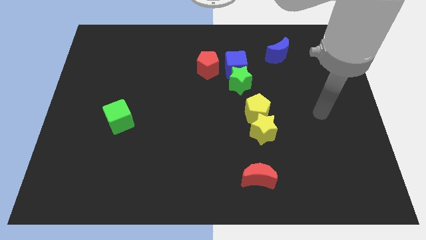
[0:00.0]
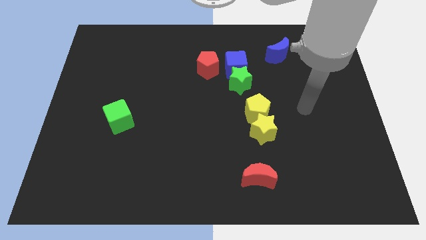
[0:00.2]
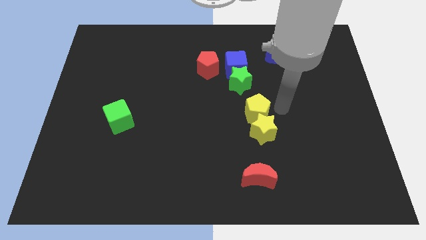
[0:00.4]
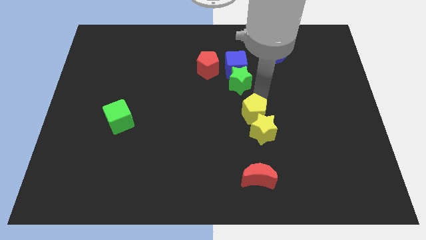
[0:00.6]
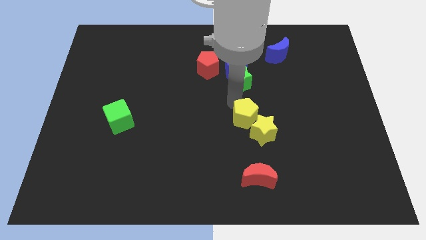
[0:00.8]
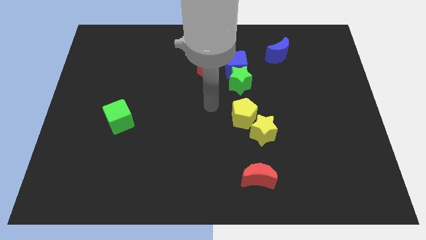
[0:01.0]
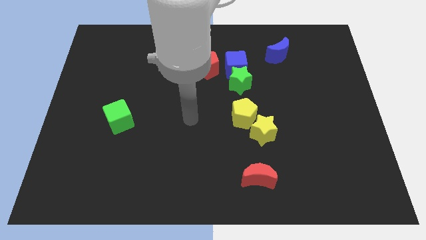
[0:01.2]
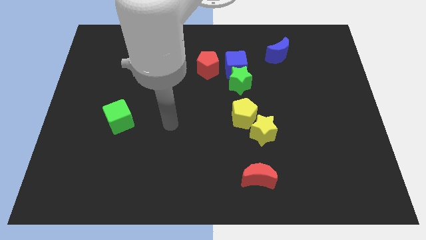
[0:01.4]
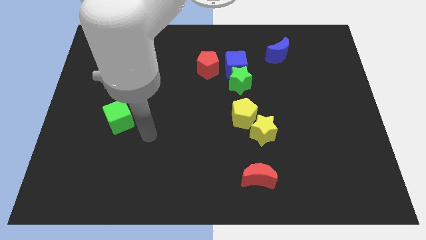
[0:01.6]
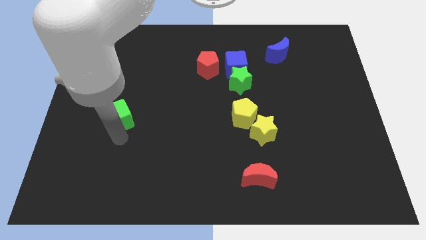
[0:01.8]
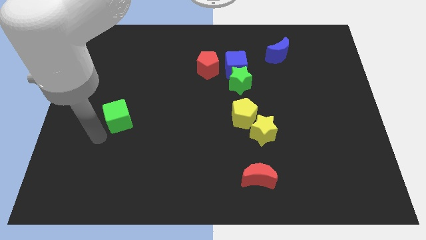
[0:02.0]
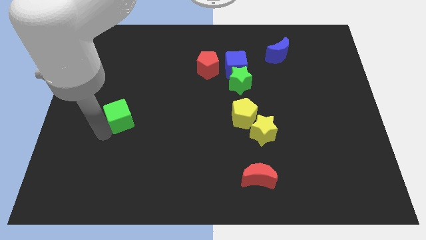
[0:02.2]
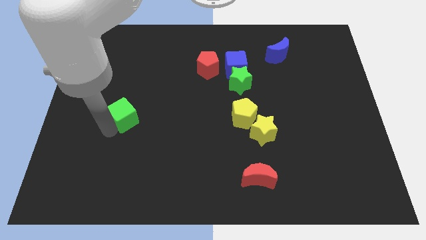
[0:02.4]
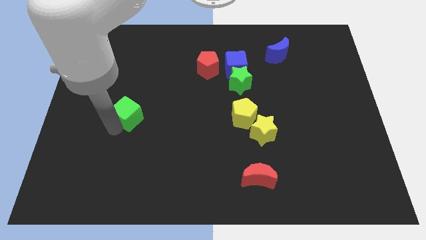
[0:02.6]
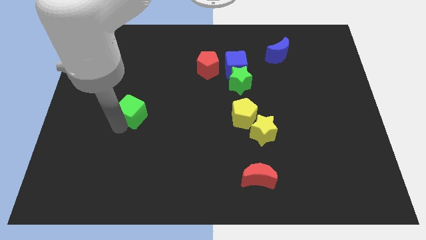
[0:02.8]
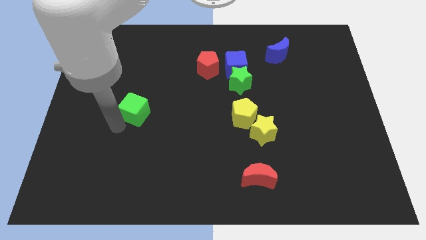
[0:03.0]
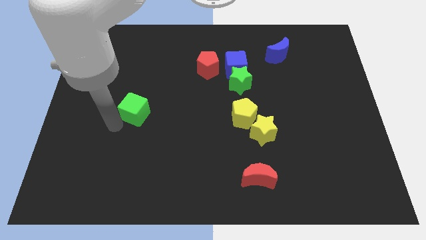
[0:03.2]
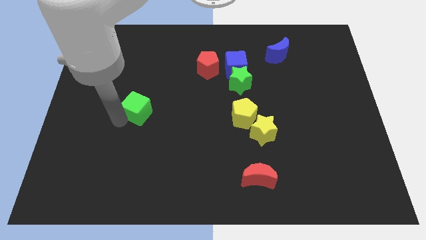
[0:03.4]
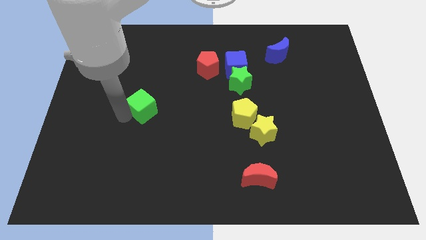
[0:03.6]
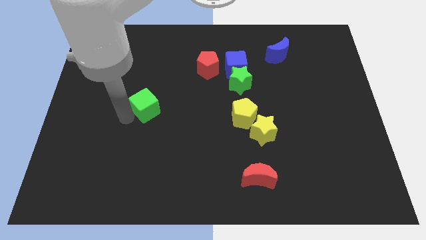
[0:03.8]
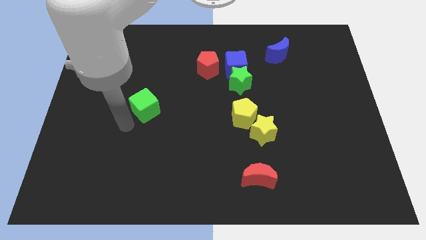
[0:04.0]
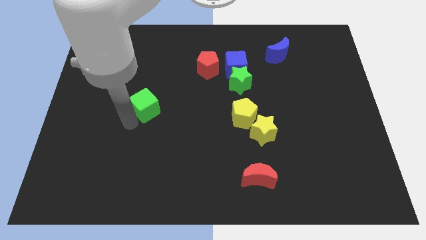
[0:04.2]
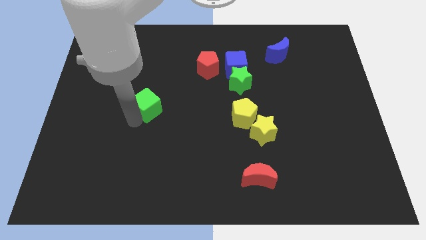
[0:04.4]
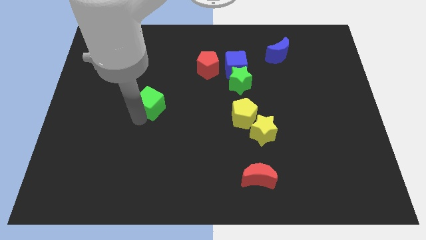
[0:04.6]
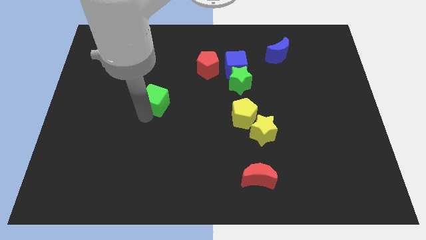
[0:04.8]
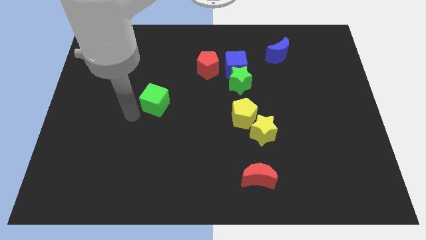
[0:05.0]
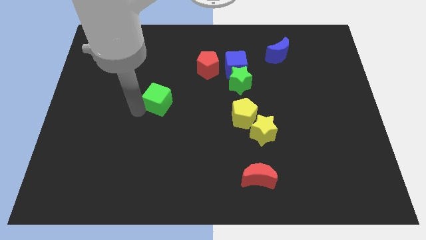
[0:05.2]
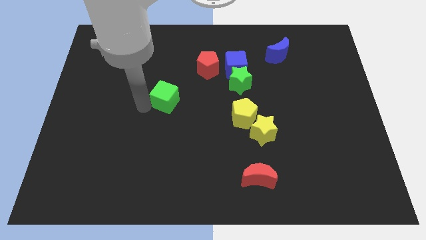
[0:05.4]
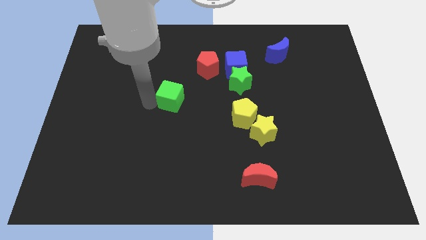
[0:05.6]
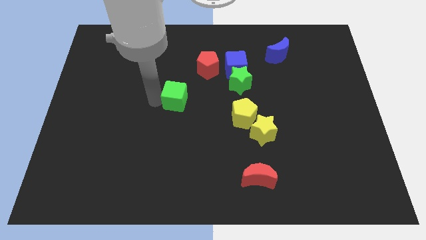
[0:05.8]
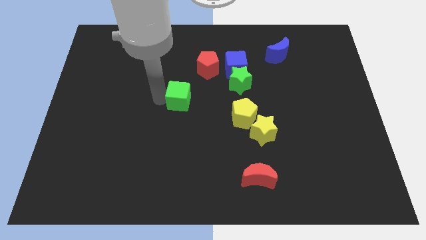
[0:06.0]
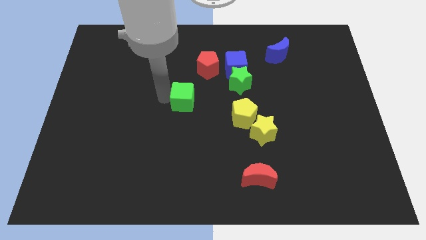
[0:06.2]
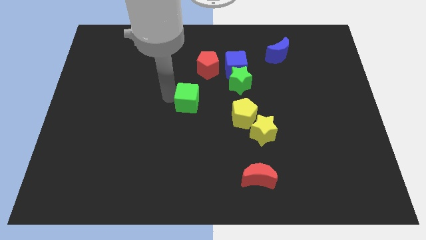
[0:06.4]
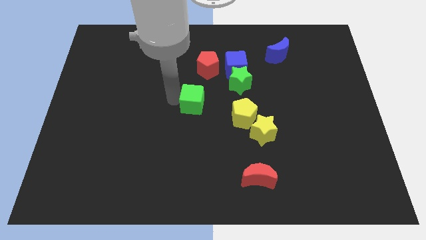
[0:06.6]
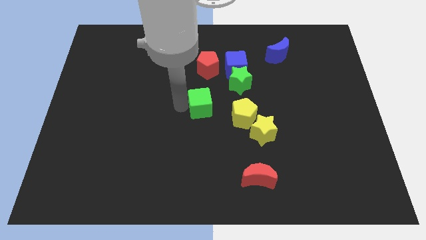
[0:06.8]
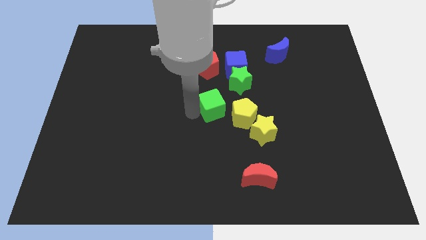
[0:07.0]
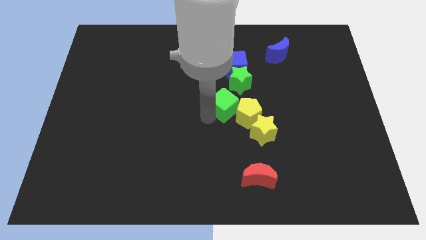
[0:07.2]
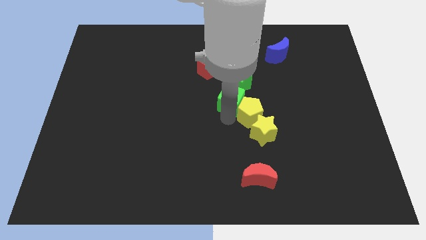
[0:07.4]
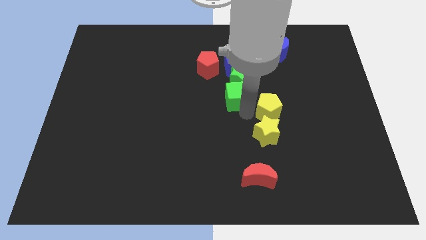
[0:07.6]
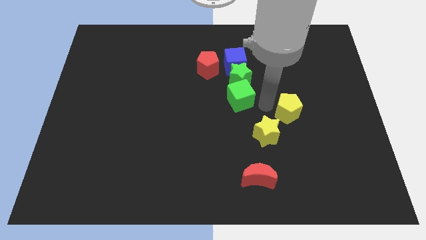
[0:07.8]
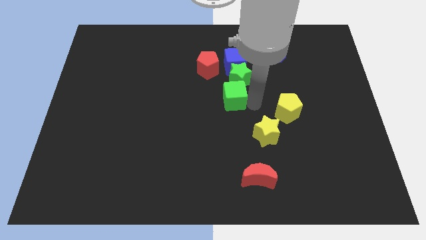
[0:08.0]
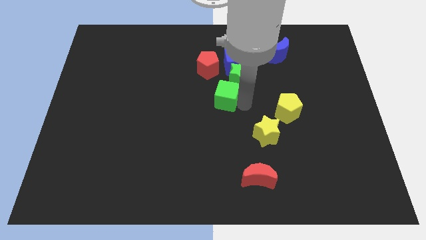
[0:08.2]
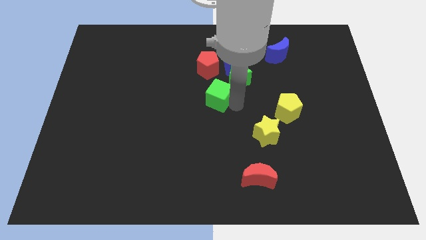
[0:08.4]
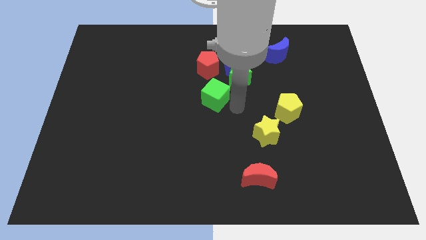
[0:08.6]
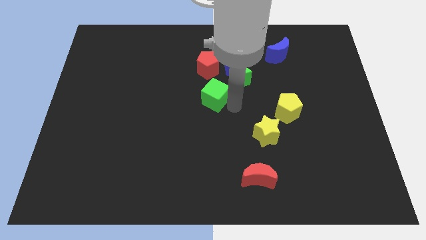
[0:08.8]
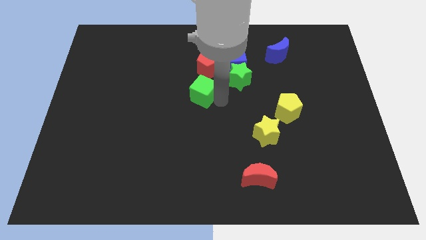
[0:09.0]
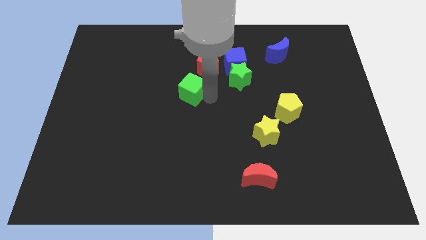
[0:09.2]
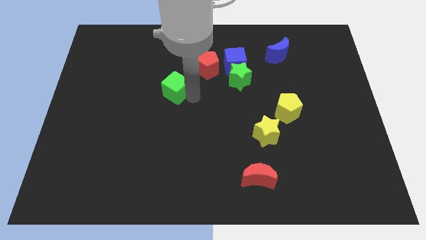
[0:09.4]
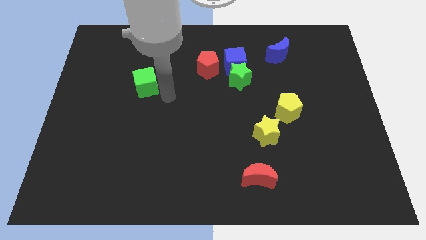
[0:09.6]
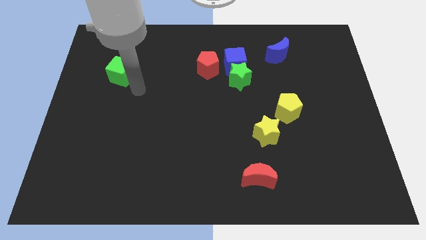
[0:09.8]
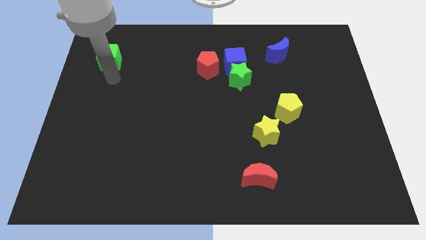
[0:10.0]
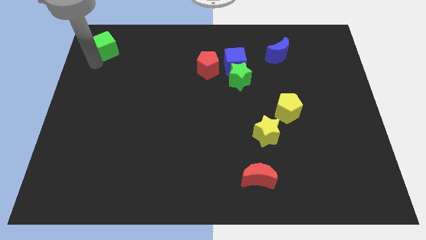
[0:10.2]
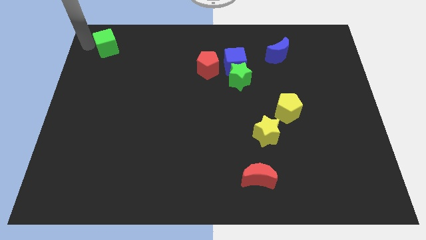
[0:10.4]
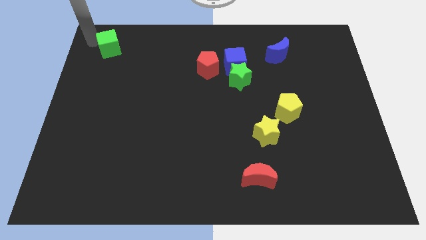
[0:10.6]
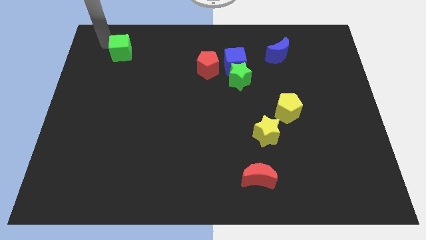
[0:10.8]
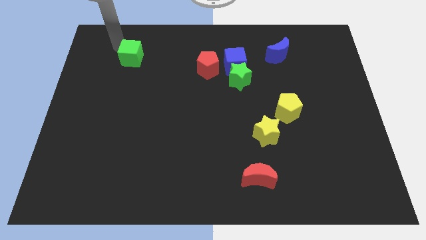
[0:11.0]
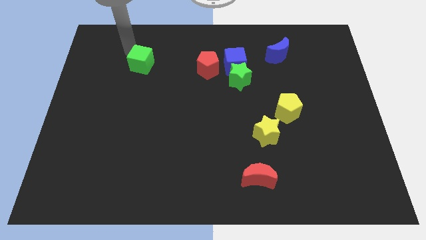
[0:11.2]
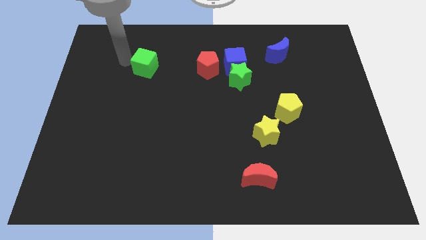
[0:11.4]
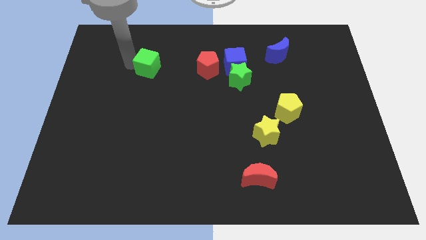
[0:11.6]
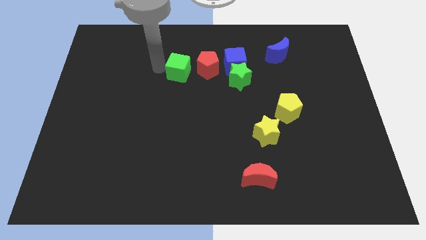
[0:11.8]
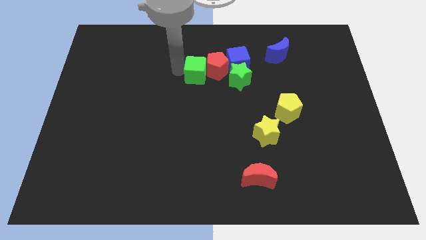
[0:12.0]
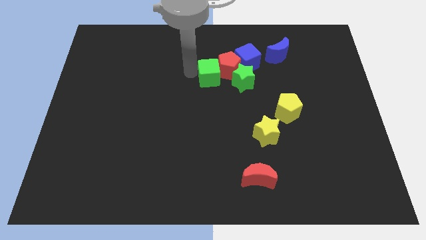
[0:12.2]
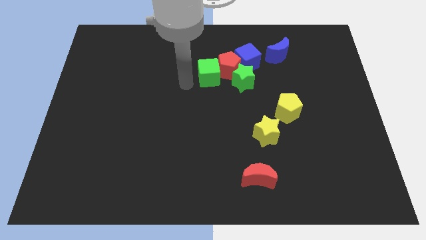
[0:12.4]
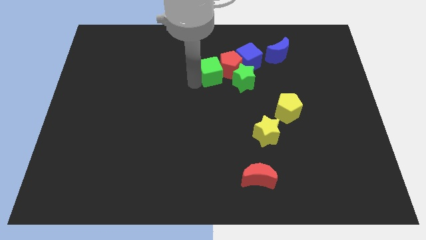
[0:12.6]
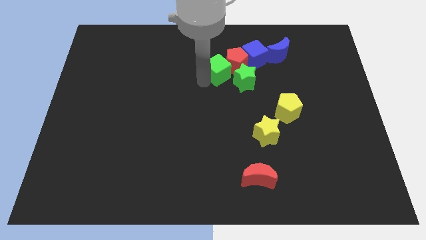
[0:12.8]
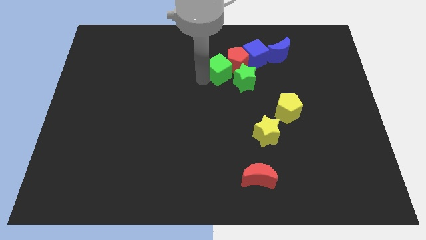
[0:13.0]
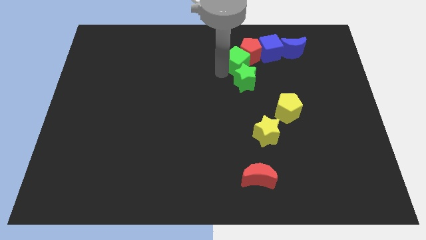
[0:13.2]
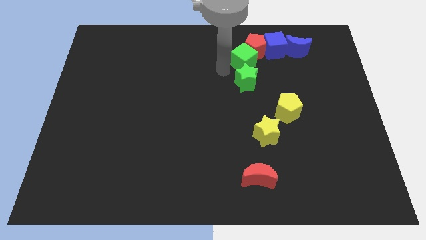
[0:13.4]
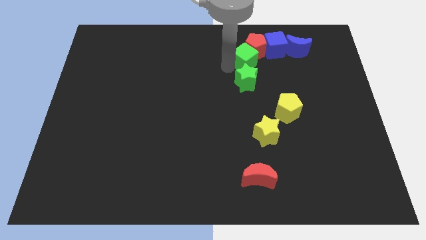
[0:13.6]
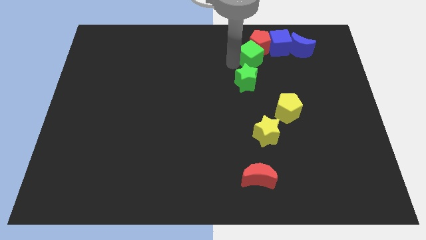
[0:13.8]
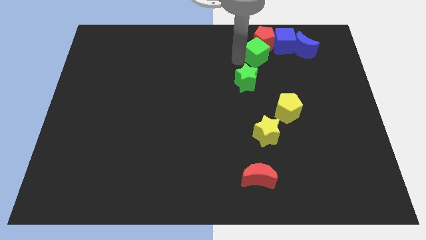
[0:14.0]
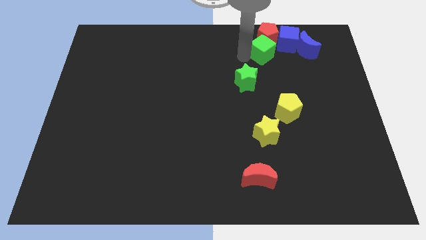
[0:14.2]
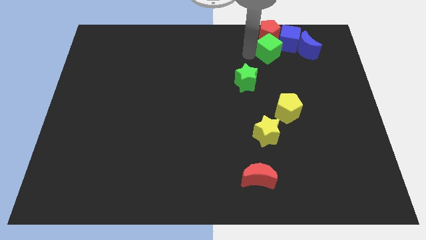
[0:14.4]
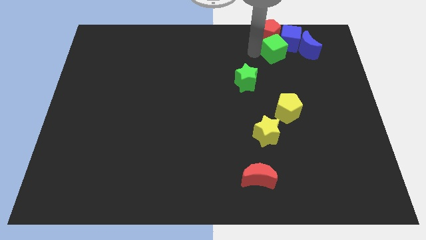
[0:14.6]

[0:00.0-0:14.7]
move the green cube next to the blue cube

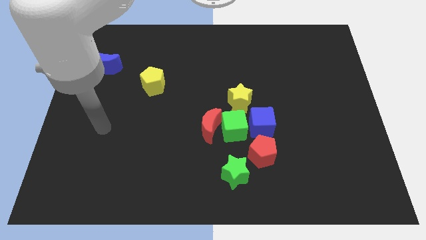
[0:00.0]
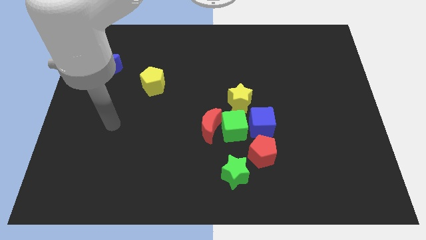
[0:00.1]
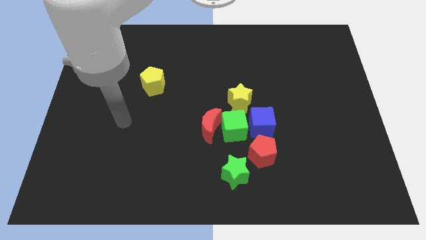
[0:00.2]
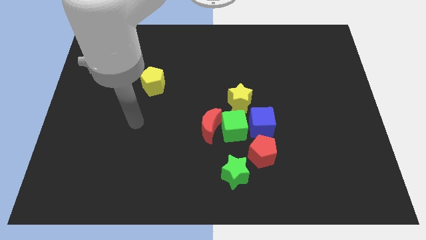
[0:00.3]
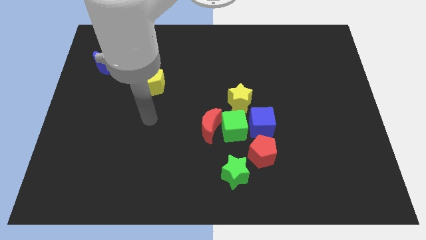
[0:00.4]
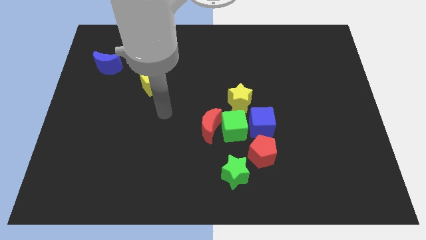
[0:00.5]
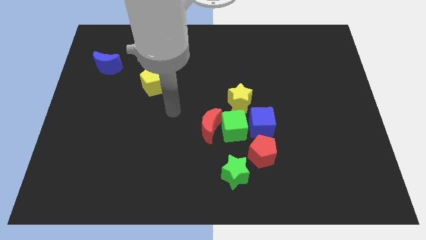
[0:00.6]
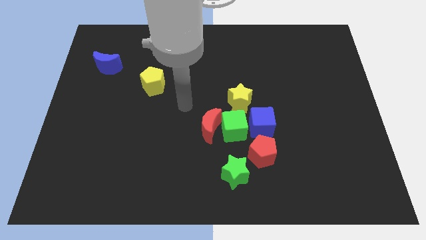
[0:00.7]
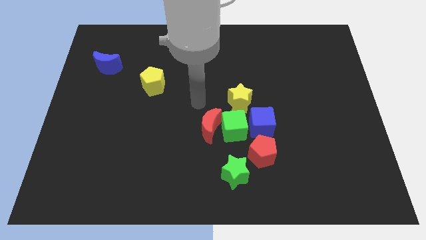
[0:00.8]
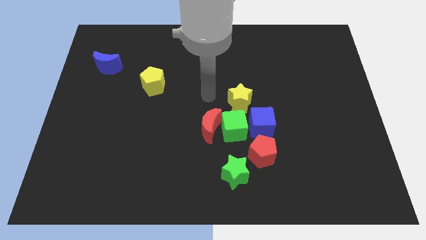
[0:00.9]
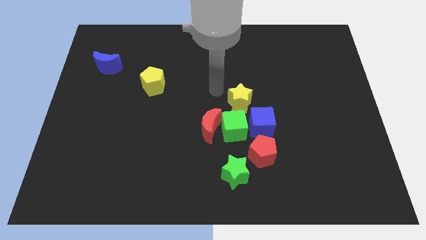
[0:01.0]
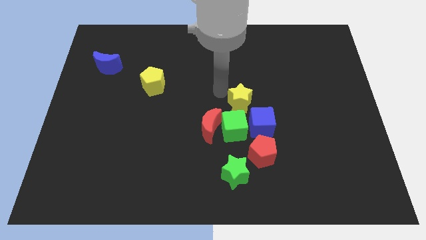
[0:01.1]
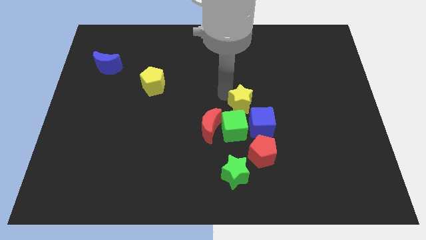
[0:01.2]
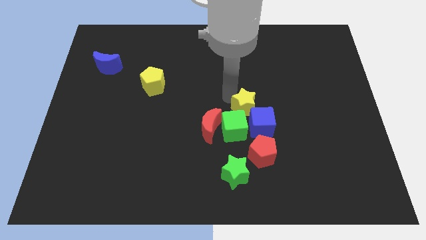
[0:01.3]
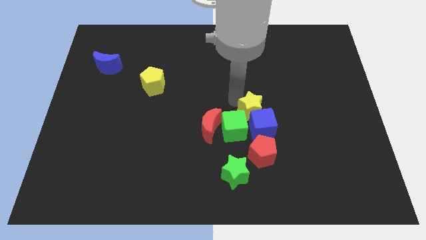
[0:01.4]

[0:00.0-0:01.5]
slide the yellow star next to the blue cube
